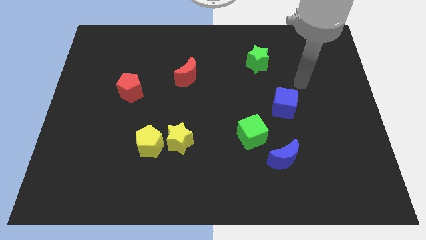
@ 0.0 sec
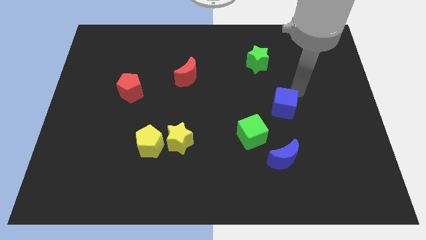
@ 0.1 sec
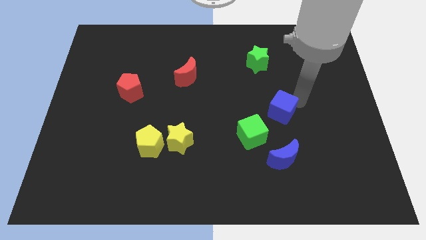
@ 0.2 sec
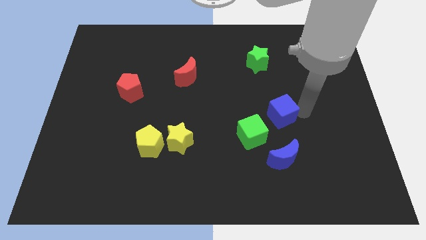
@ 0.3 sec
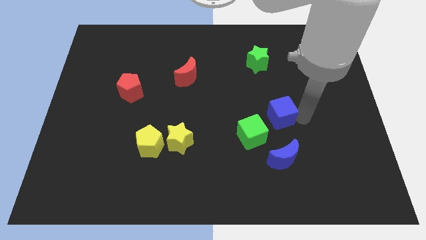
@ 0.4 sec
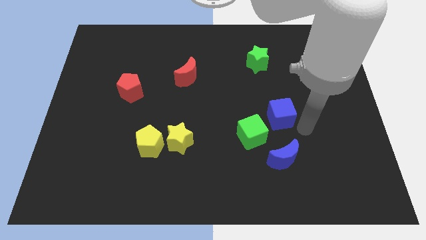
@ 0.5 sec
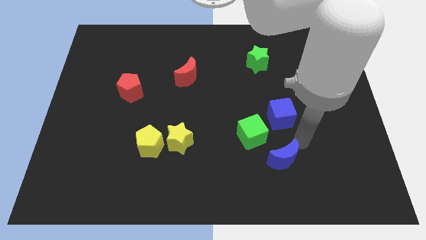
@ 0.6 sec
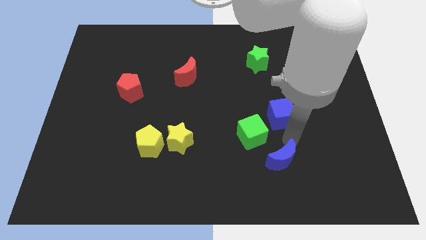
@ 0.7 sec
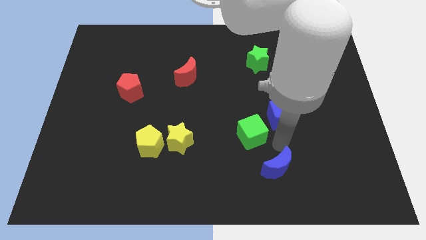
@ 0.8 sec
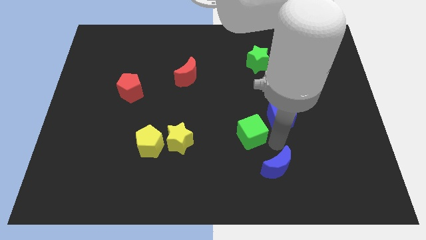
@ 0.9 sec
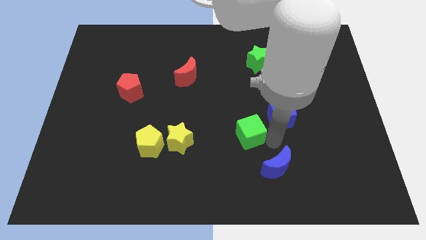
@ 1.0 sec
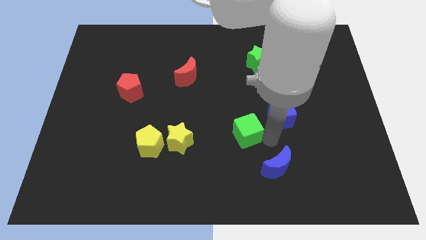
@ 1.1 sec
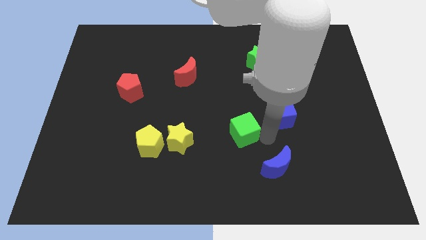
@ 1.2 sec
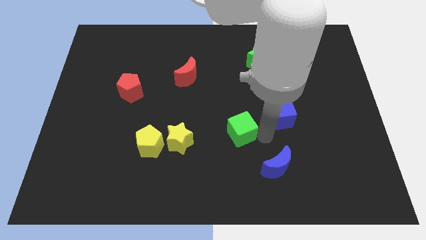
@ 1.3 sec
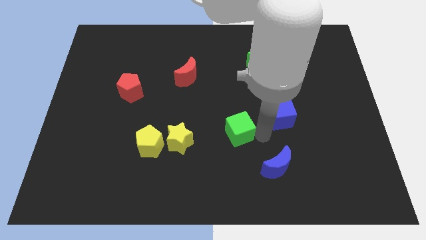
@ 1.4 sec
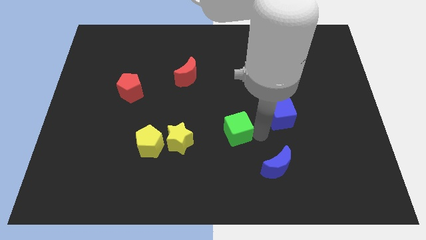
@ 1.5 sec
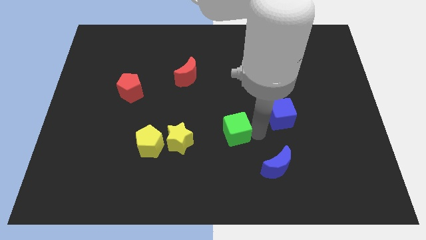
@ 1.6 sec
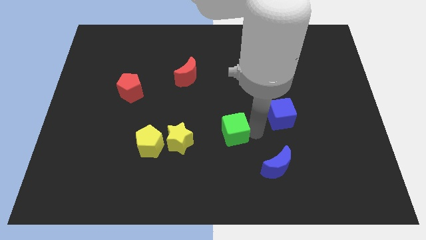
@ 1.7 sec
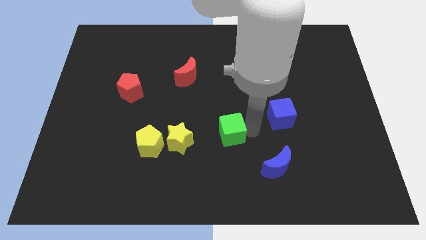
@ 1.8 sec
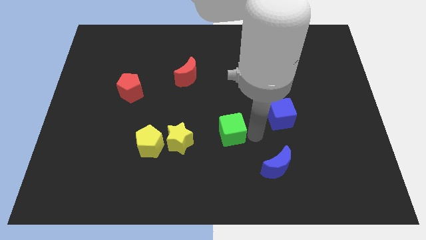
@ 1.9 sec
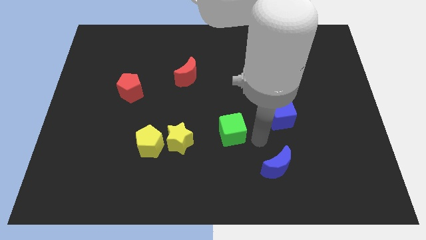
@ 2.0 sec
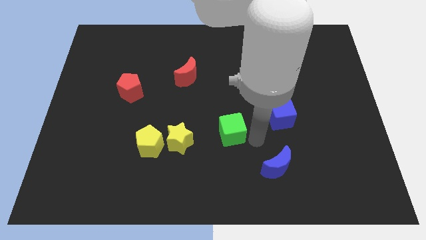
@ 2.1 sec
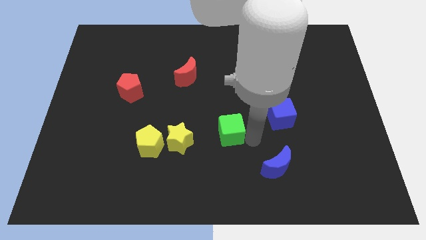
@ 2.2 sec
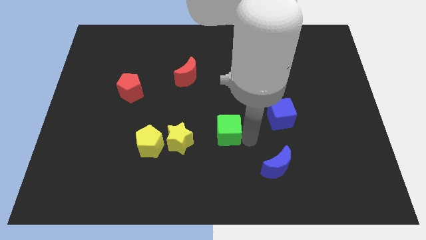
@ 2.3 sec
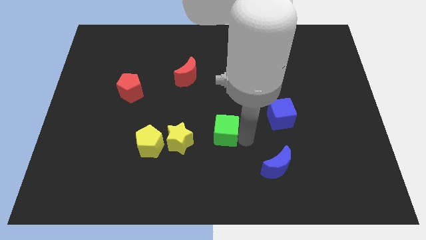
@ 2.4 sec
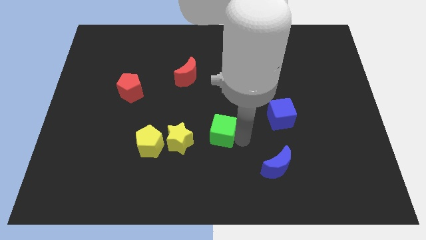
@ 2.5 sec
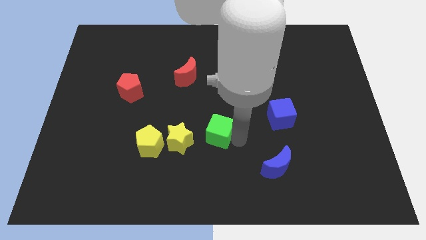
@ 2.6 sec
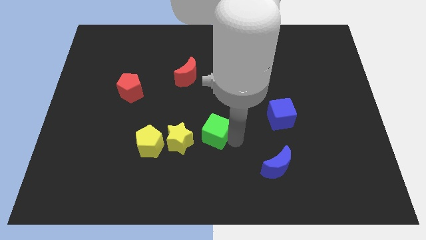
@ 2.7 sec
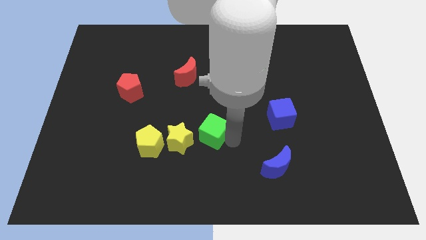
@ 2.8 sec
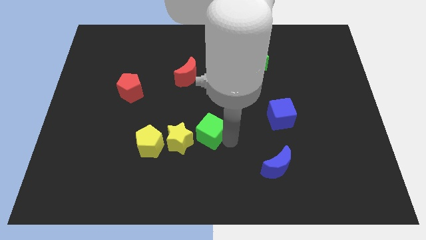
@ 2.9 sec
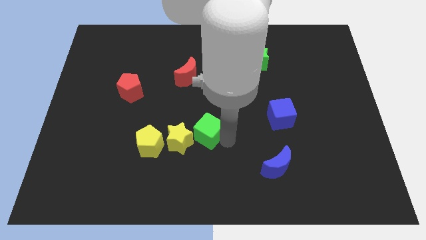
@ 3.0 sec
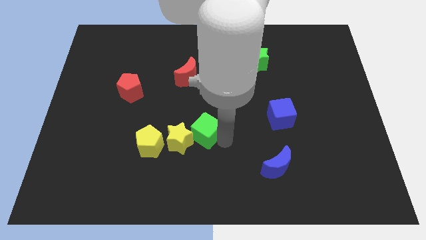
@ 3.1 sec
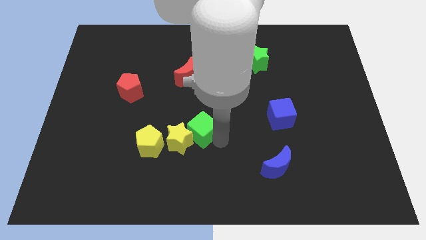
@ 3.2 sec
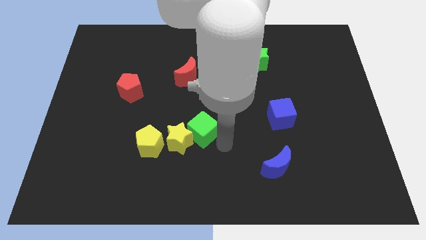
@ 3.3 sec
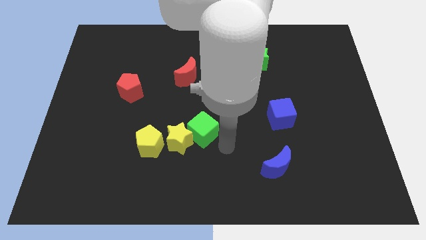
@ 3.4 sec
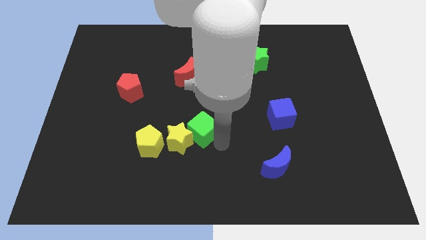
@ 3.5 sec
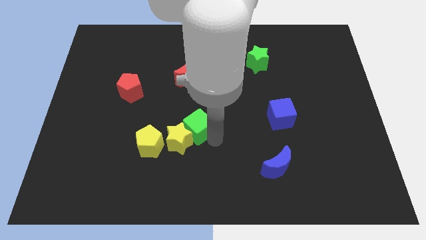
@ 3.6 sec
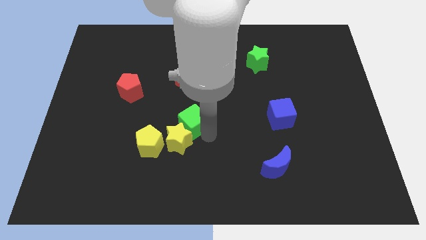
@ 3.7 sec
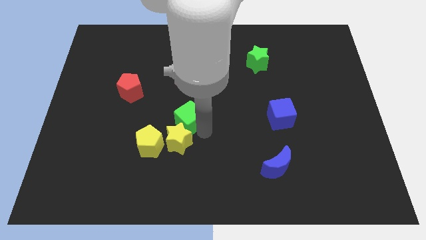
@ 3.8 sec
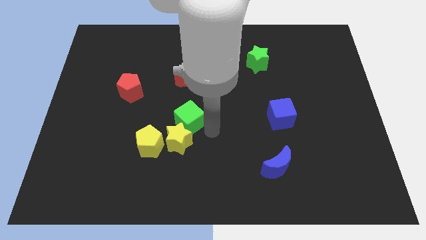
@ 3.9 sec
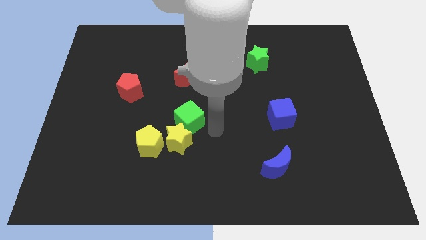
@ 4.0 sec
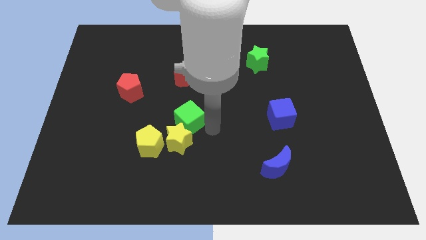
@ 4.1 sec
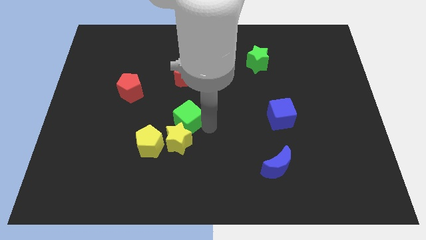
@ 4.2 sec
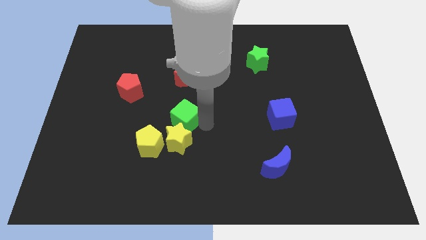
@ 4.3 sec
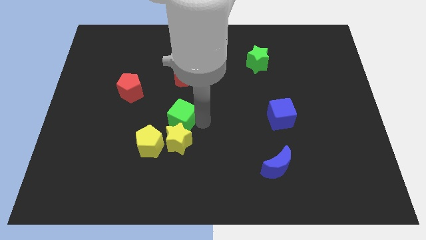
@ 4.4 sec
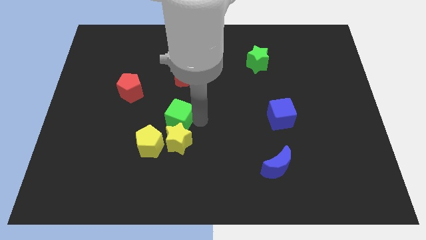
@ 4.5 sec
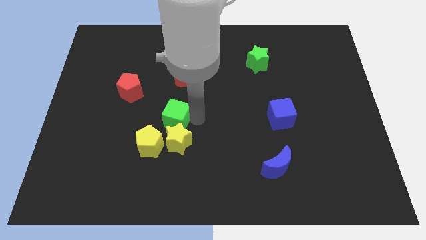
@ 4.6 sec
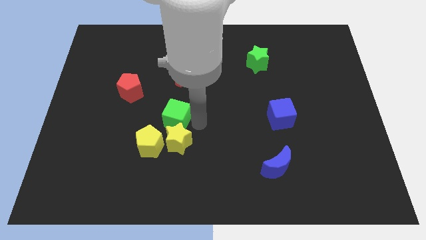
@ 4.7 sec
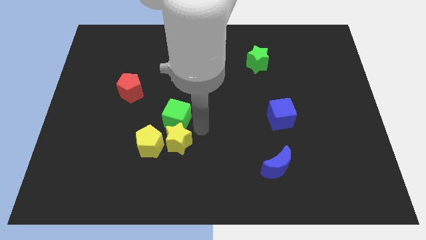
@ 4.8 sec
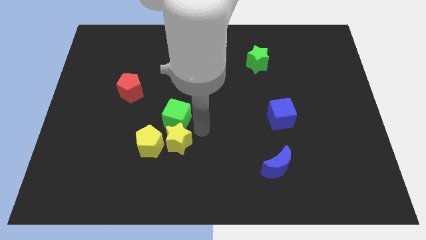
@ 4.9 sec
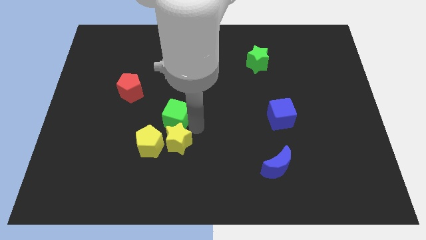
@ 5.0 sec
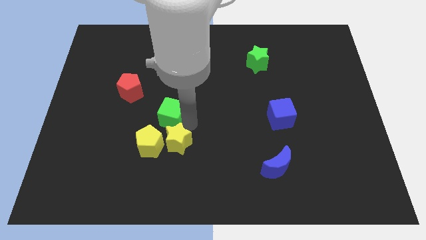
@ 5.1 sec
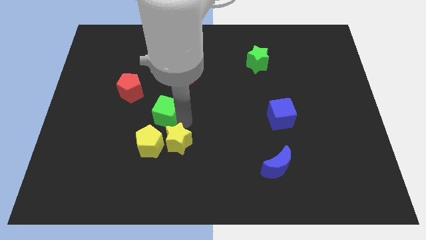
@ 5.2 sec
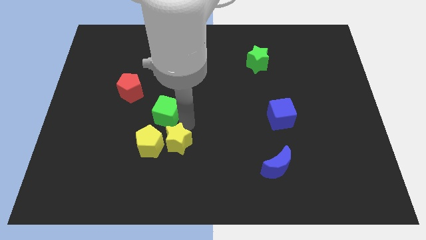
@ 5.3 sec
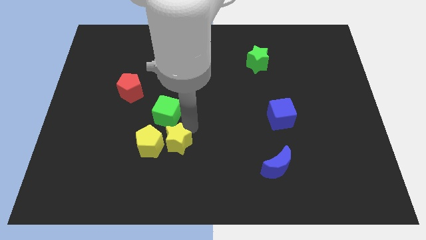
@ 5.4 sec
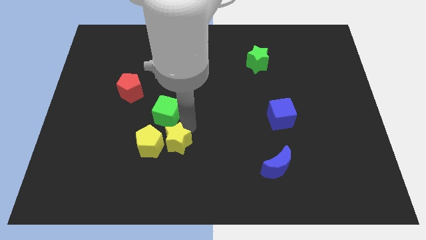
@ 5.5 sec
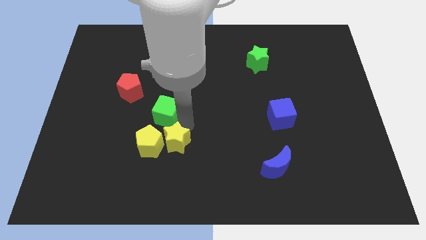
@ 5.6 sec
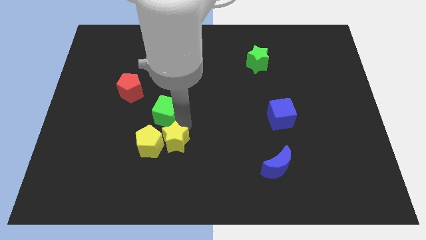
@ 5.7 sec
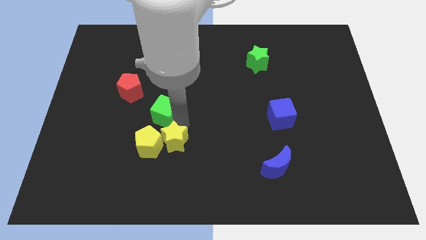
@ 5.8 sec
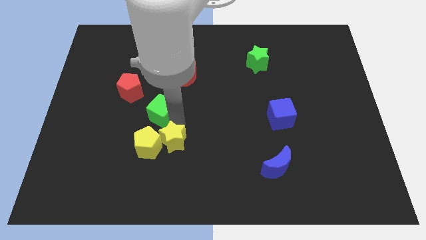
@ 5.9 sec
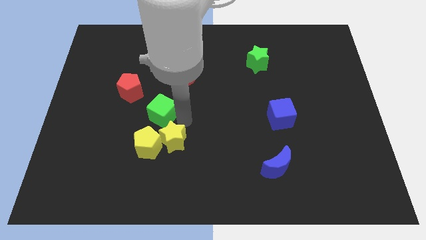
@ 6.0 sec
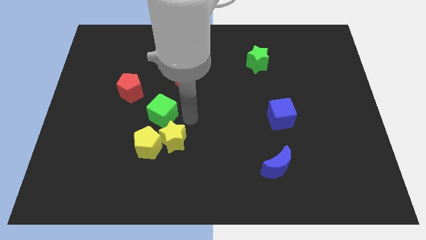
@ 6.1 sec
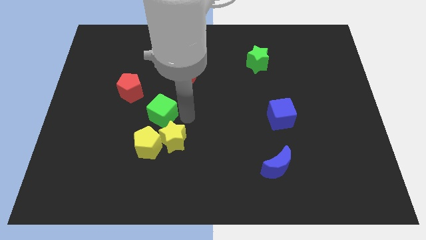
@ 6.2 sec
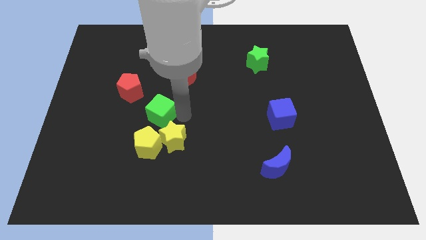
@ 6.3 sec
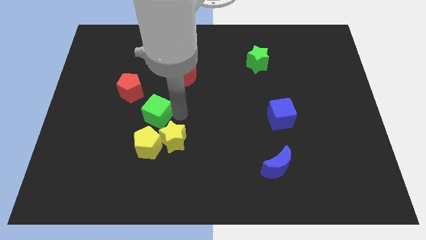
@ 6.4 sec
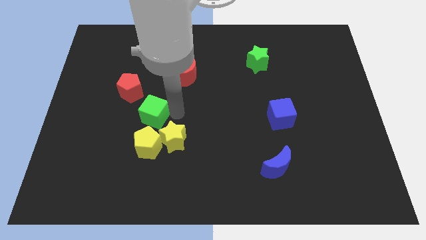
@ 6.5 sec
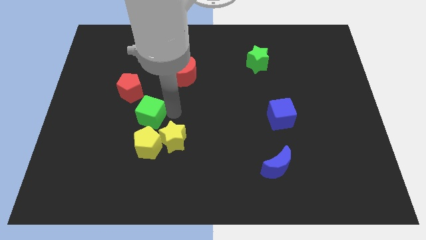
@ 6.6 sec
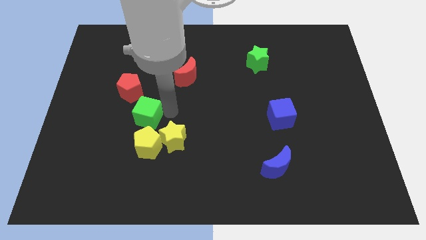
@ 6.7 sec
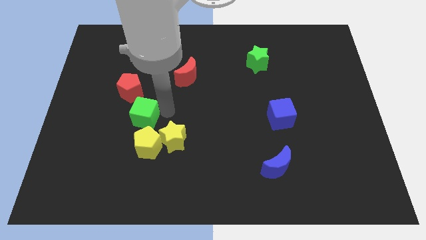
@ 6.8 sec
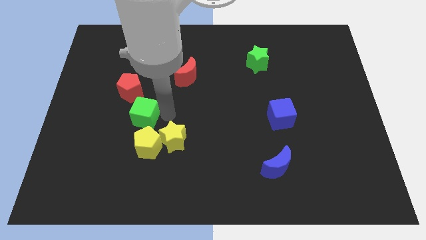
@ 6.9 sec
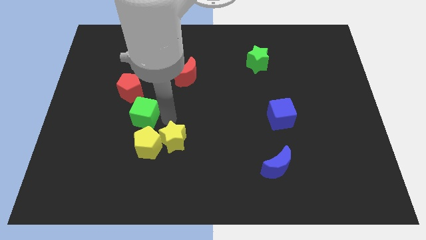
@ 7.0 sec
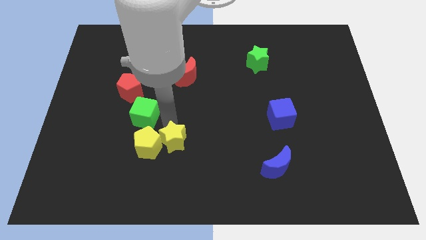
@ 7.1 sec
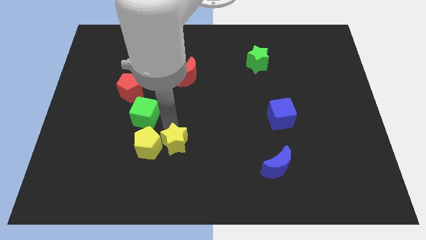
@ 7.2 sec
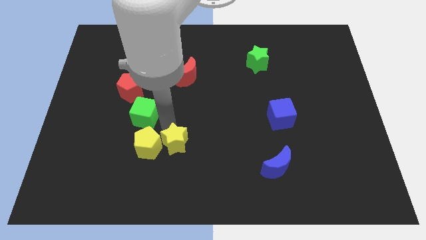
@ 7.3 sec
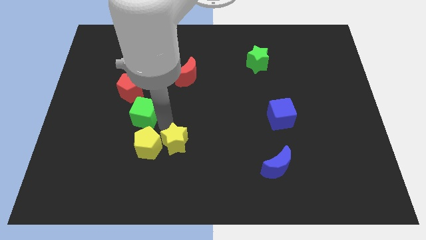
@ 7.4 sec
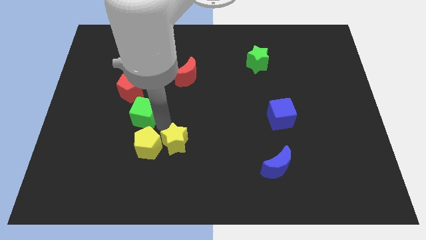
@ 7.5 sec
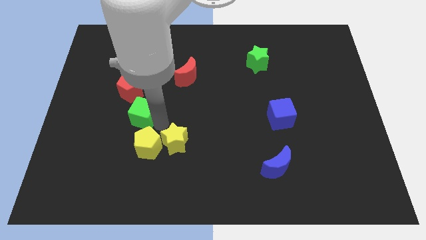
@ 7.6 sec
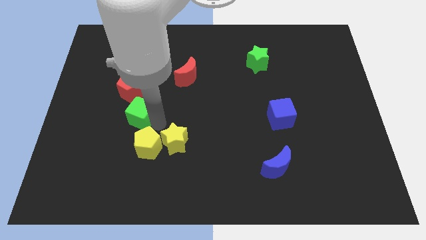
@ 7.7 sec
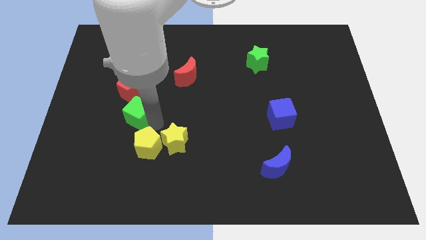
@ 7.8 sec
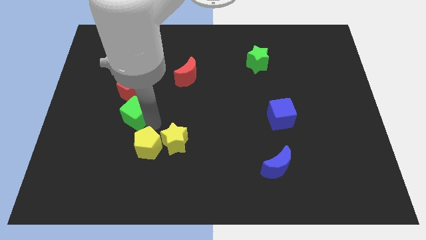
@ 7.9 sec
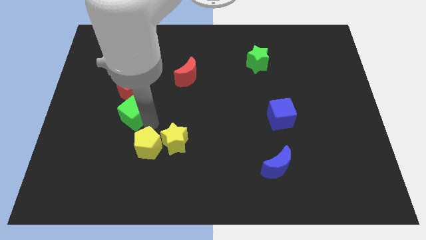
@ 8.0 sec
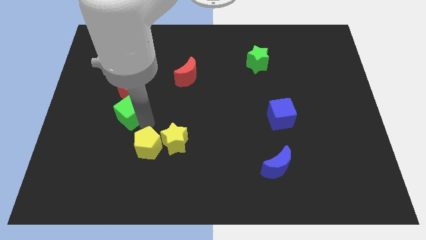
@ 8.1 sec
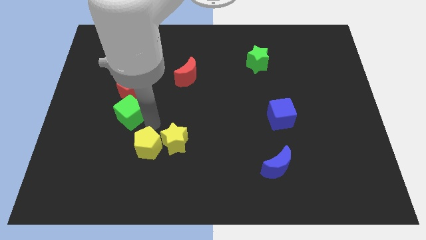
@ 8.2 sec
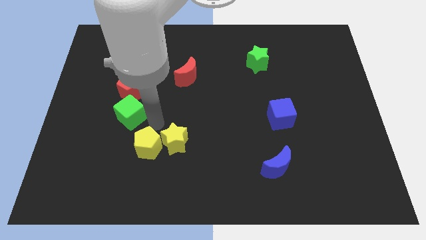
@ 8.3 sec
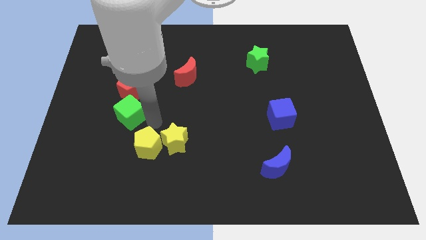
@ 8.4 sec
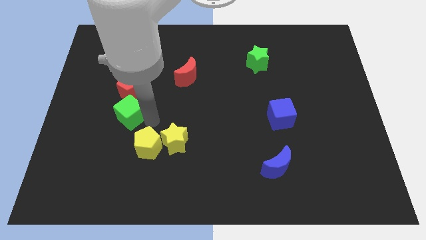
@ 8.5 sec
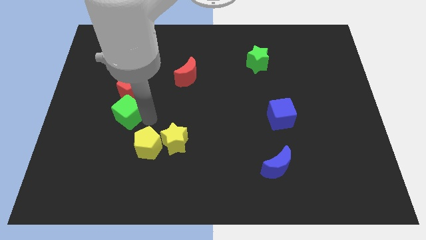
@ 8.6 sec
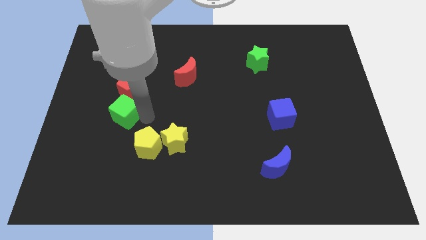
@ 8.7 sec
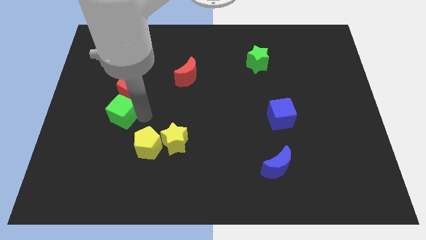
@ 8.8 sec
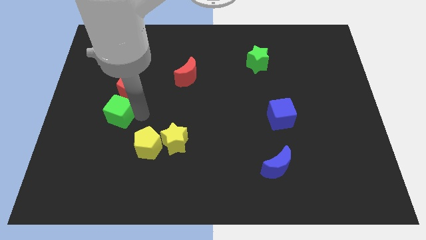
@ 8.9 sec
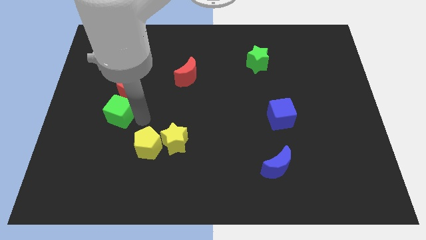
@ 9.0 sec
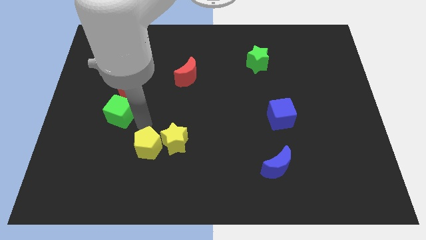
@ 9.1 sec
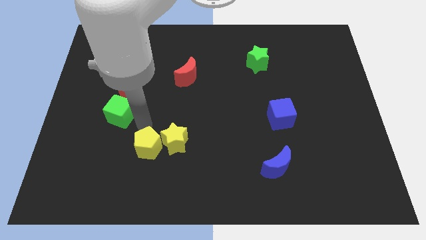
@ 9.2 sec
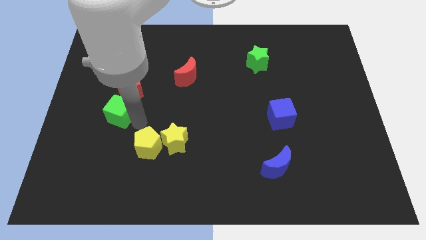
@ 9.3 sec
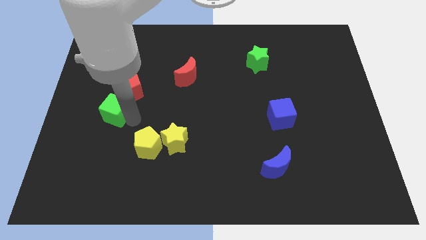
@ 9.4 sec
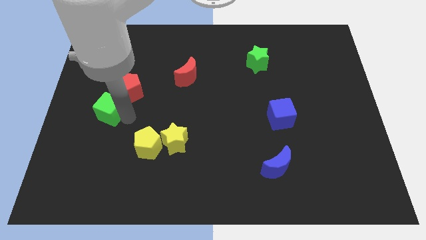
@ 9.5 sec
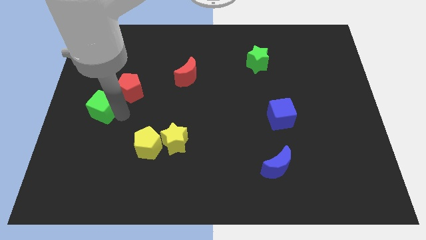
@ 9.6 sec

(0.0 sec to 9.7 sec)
put the green cube to the left side
